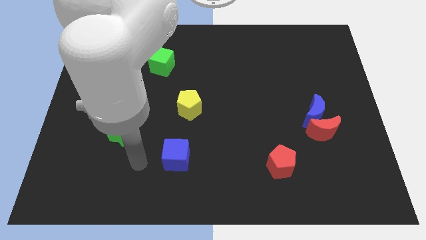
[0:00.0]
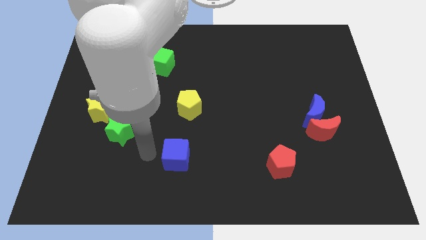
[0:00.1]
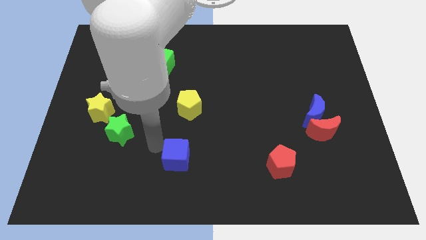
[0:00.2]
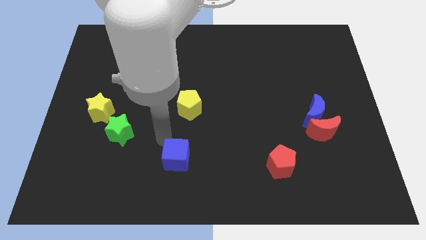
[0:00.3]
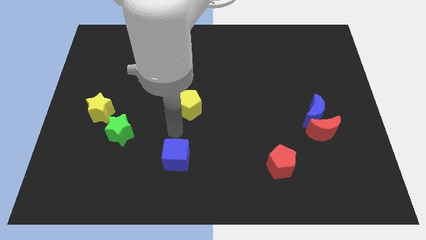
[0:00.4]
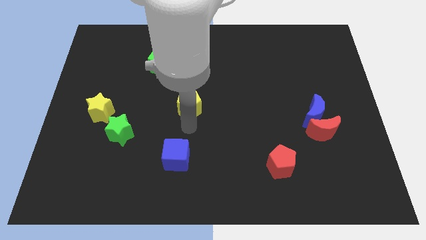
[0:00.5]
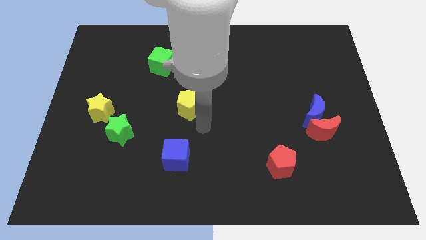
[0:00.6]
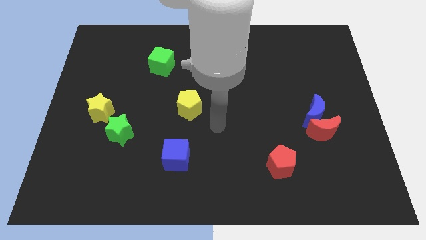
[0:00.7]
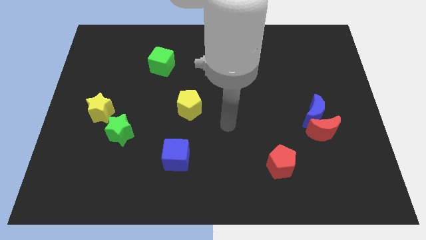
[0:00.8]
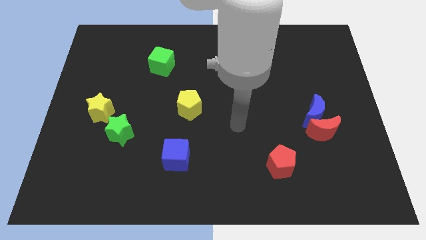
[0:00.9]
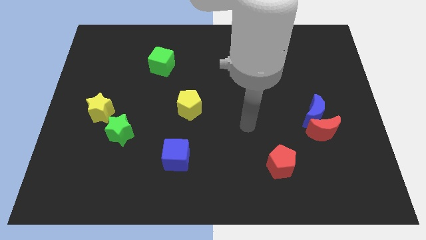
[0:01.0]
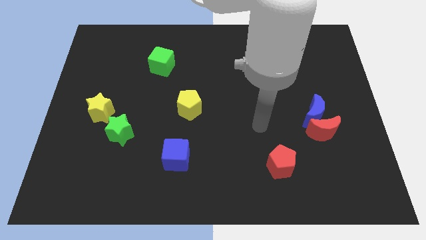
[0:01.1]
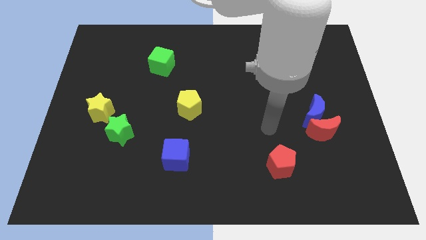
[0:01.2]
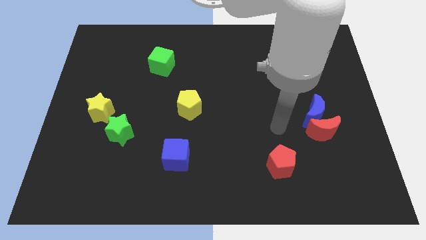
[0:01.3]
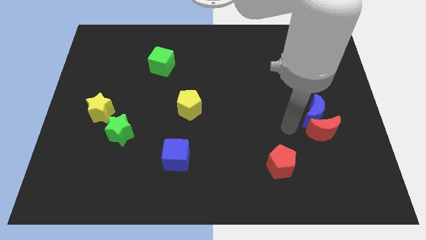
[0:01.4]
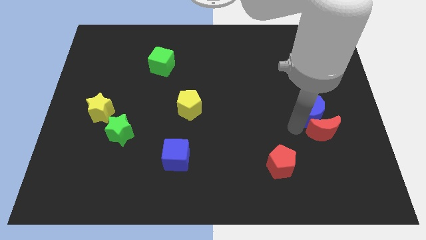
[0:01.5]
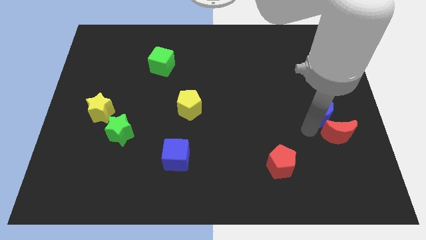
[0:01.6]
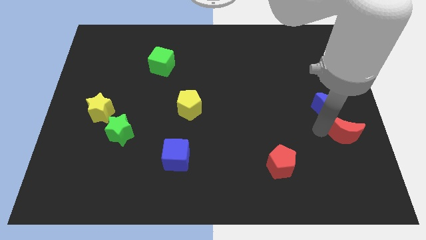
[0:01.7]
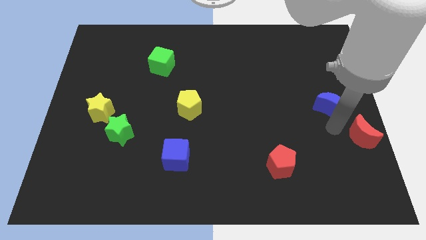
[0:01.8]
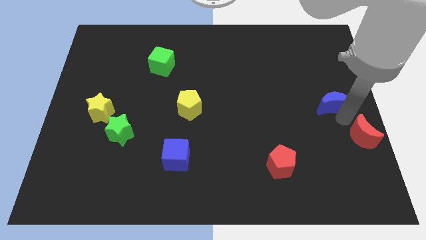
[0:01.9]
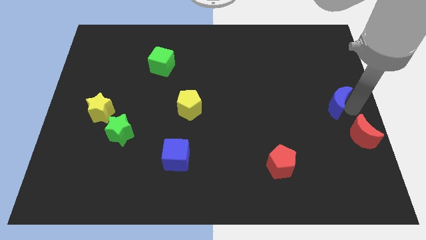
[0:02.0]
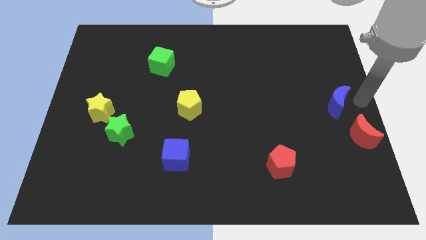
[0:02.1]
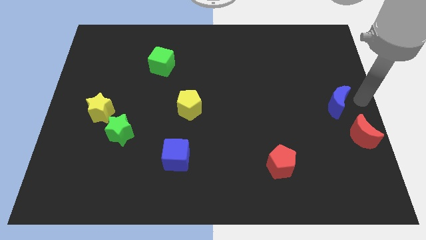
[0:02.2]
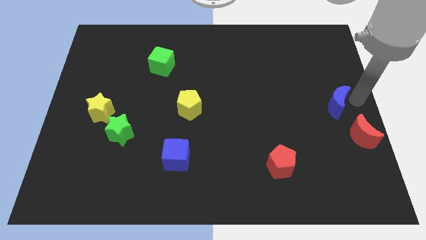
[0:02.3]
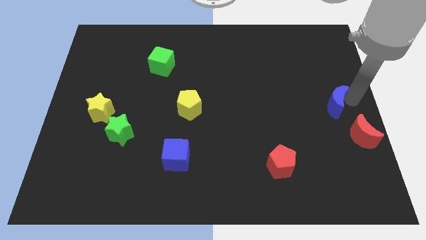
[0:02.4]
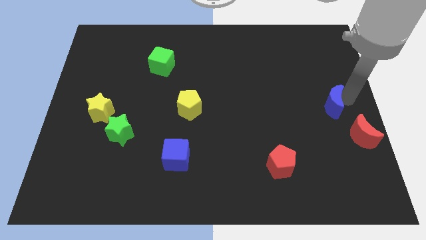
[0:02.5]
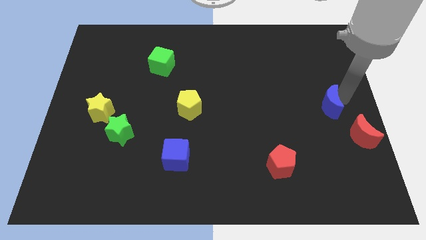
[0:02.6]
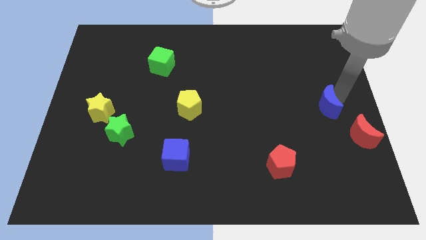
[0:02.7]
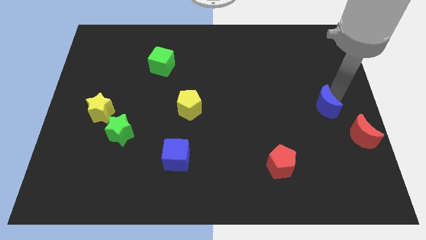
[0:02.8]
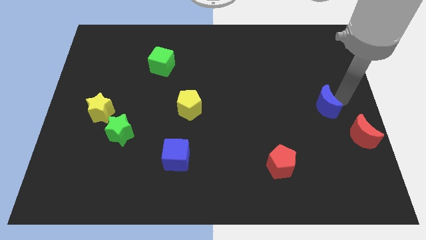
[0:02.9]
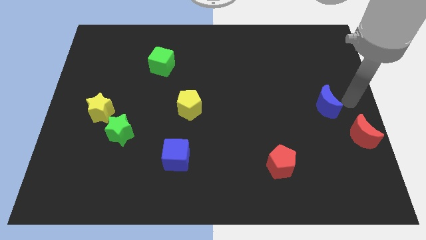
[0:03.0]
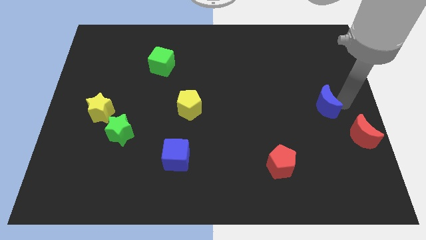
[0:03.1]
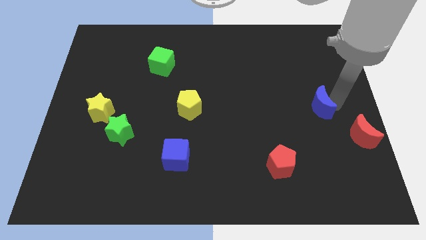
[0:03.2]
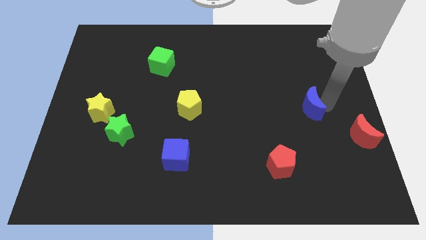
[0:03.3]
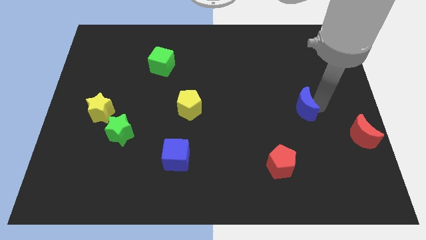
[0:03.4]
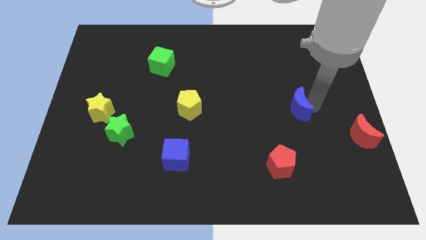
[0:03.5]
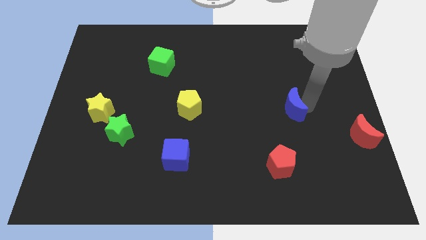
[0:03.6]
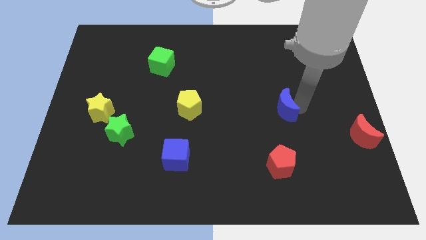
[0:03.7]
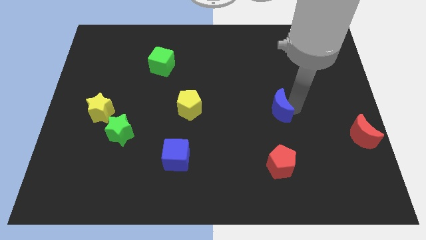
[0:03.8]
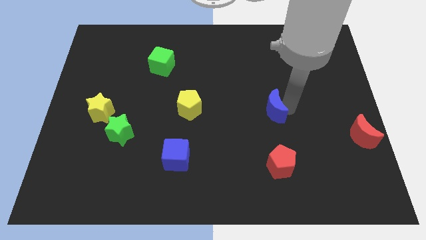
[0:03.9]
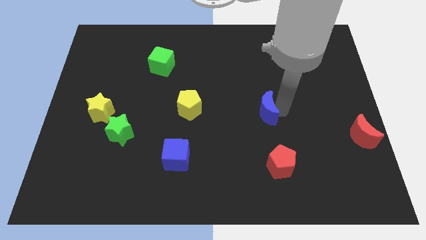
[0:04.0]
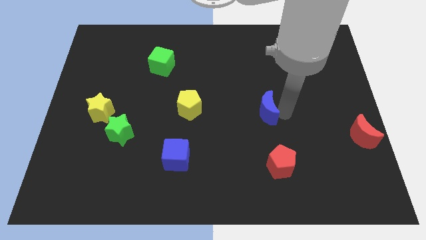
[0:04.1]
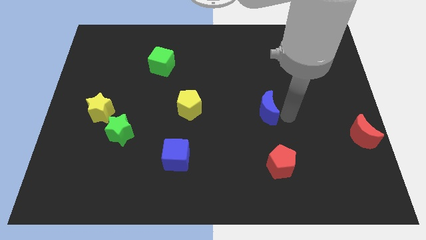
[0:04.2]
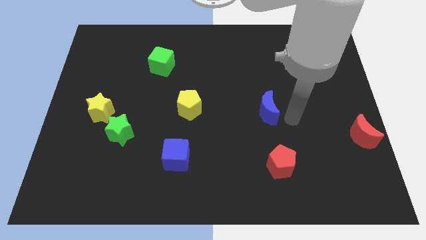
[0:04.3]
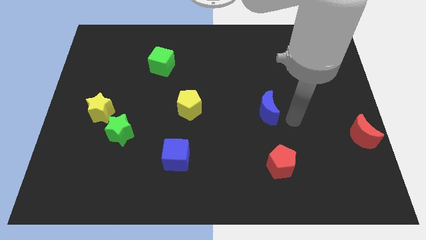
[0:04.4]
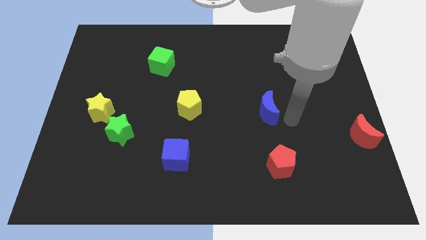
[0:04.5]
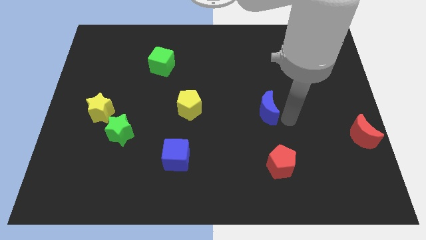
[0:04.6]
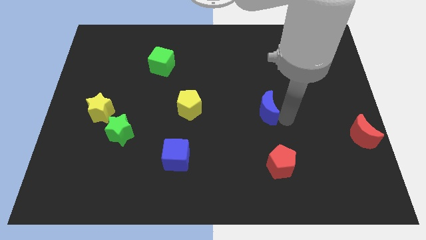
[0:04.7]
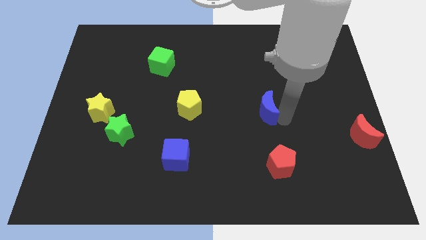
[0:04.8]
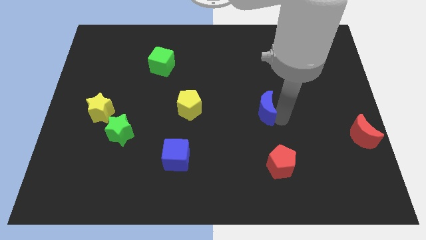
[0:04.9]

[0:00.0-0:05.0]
put the blue moon to the center

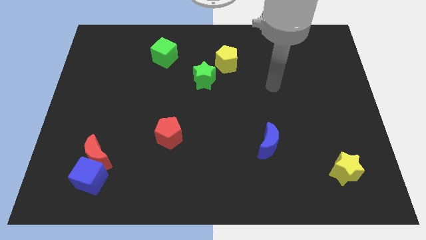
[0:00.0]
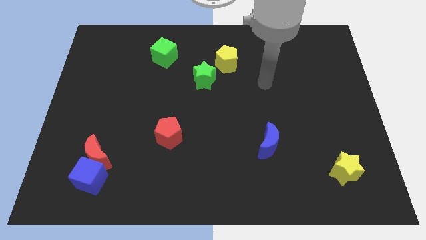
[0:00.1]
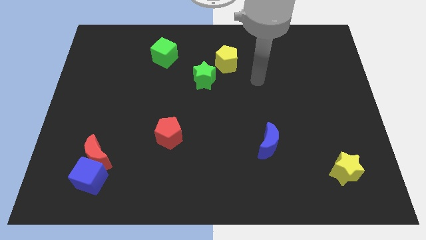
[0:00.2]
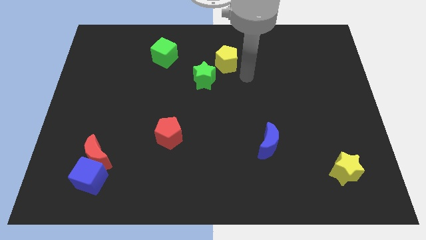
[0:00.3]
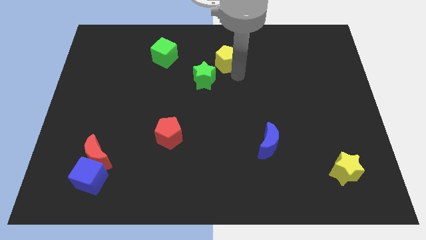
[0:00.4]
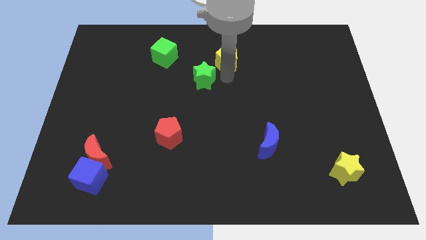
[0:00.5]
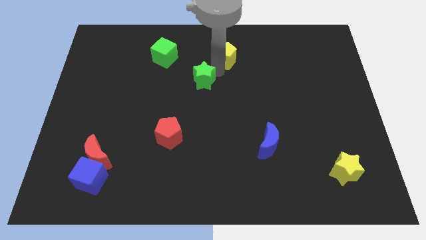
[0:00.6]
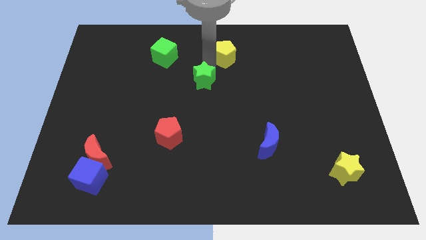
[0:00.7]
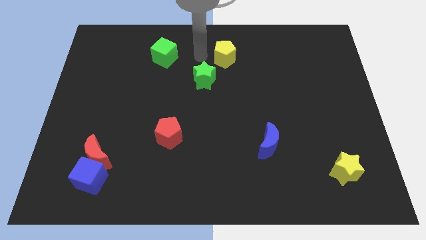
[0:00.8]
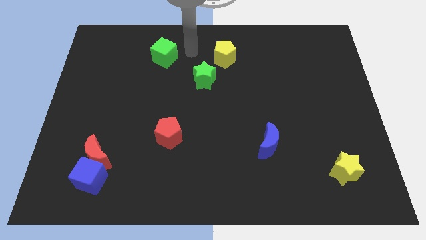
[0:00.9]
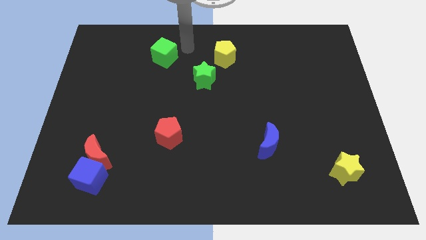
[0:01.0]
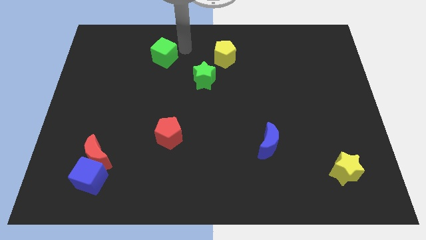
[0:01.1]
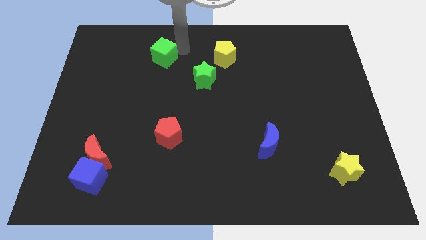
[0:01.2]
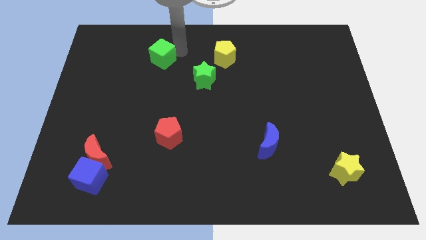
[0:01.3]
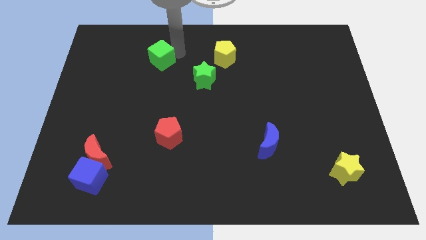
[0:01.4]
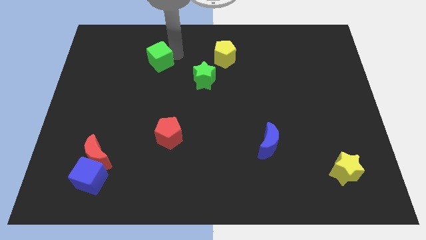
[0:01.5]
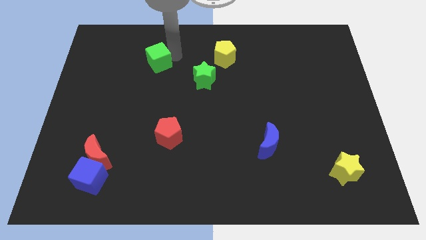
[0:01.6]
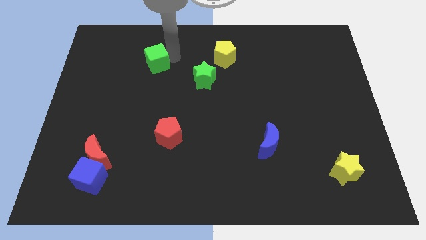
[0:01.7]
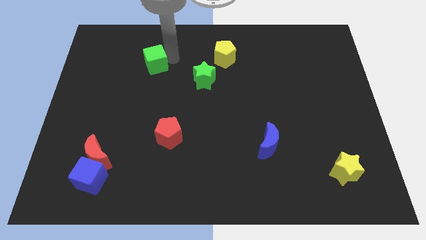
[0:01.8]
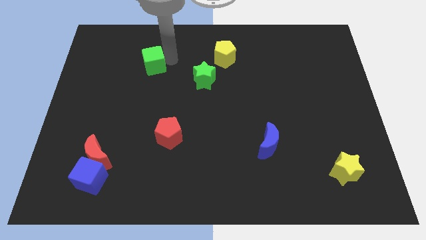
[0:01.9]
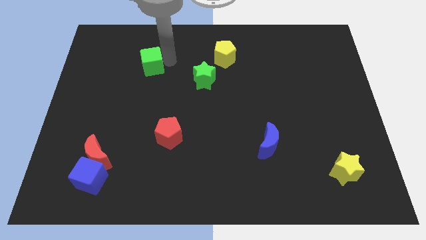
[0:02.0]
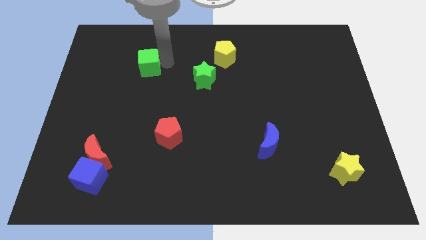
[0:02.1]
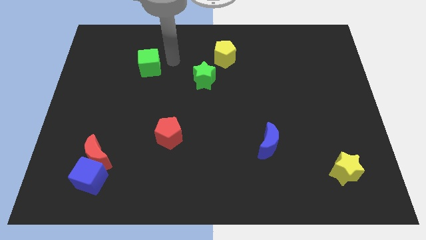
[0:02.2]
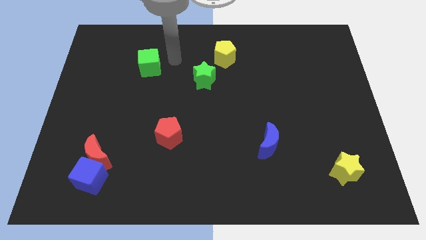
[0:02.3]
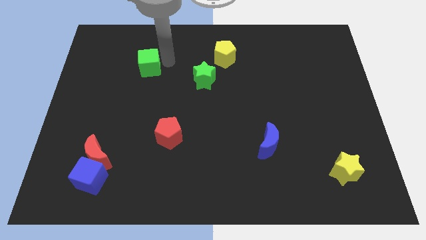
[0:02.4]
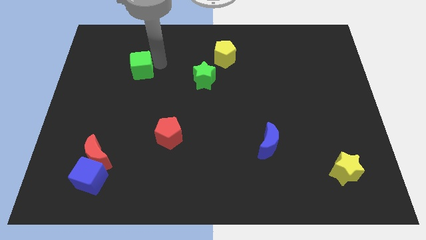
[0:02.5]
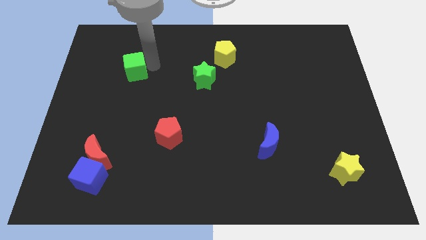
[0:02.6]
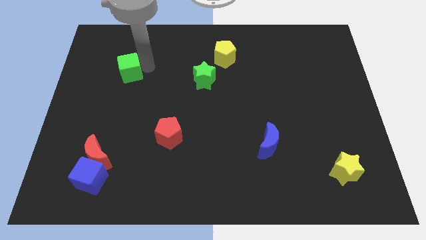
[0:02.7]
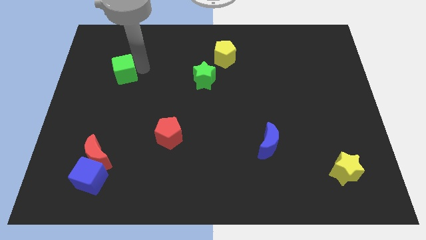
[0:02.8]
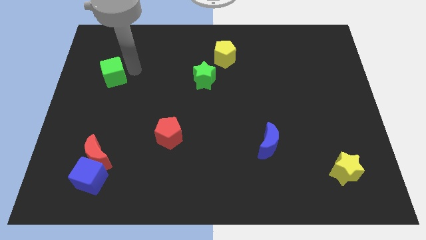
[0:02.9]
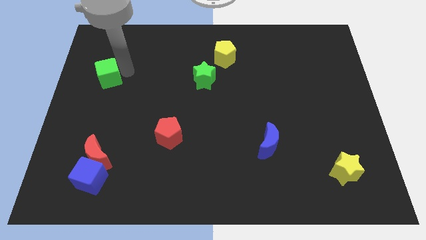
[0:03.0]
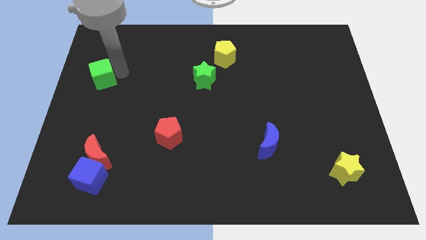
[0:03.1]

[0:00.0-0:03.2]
put the green cube to the left side
